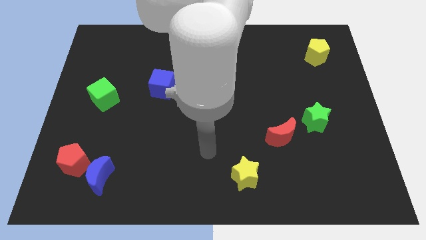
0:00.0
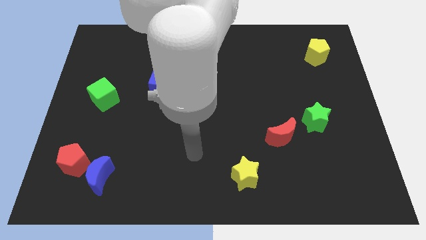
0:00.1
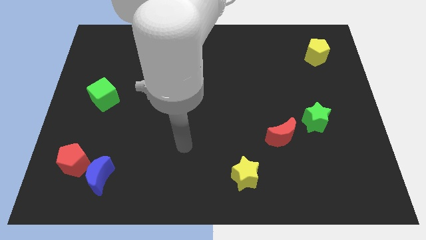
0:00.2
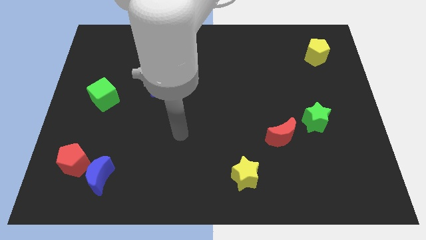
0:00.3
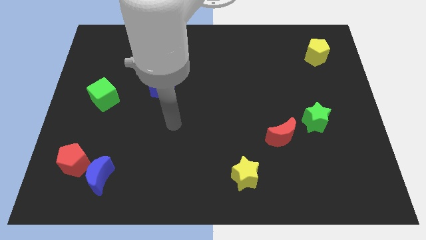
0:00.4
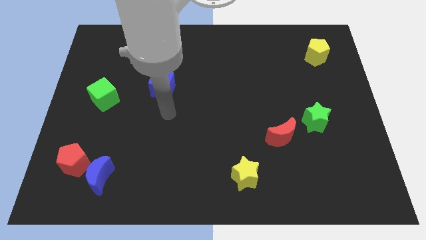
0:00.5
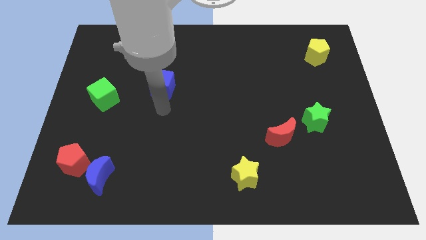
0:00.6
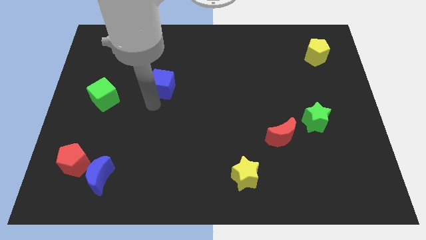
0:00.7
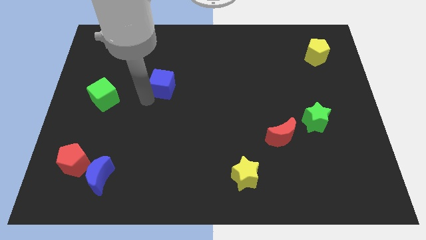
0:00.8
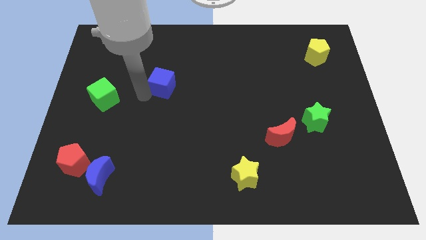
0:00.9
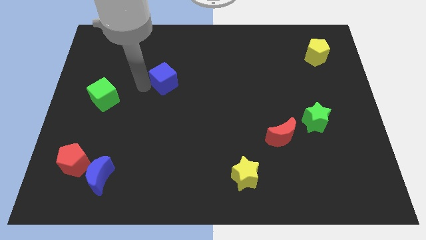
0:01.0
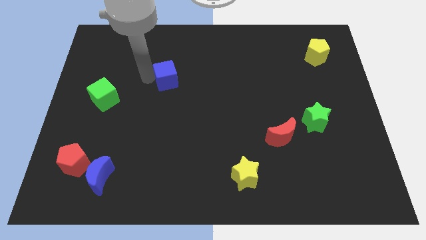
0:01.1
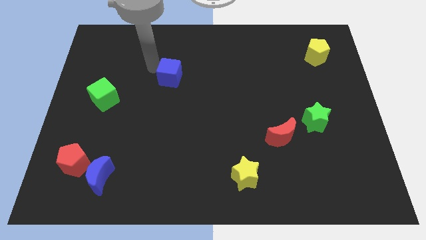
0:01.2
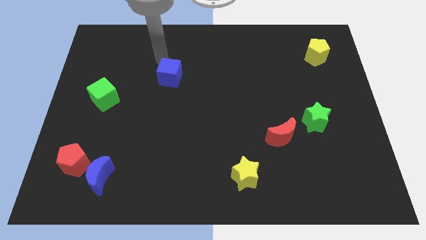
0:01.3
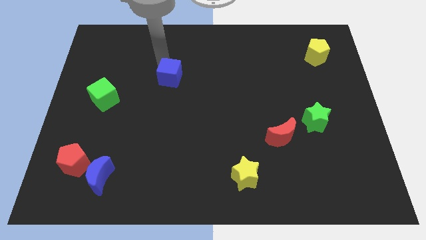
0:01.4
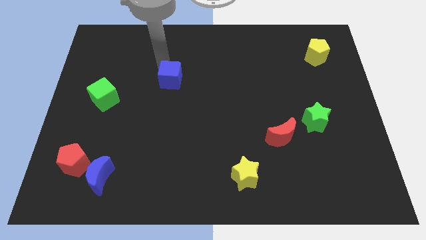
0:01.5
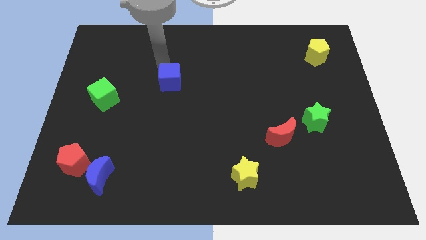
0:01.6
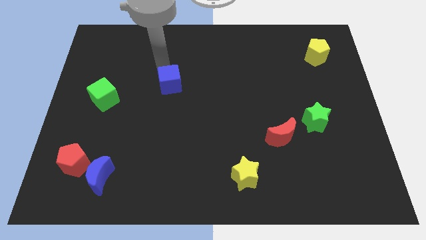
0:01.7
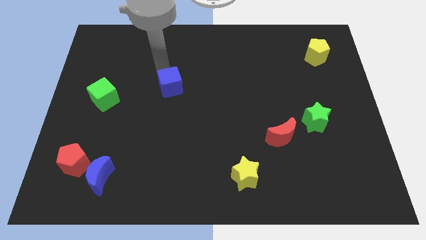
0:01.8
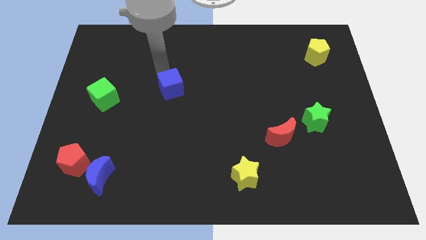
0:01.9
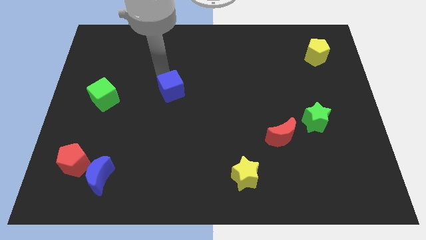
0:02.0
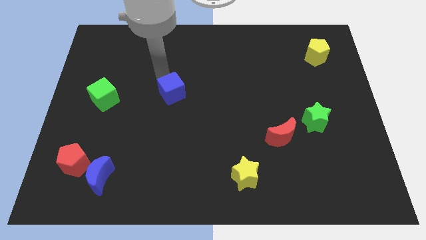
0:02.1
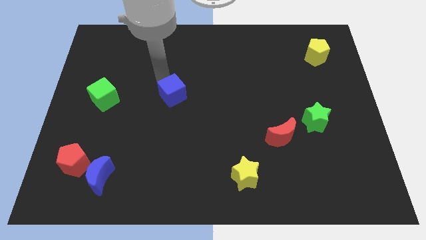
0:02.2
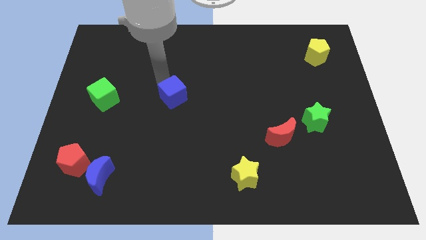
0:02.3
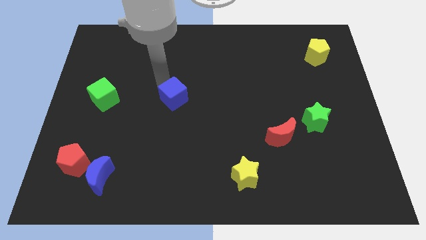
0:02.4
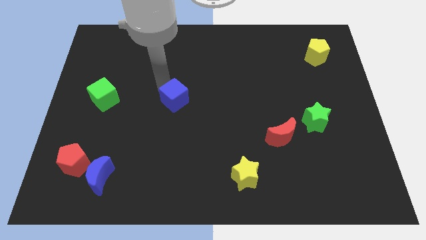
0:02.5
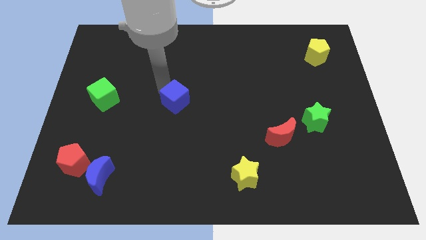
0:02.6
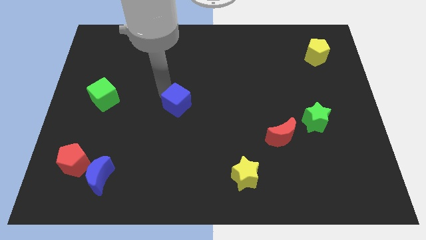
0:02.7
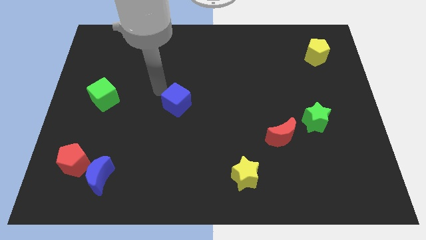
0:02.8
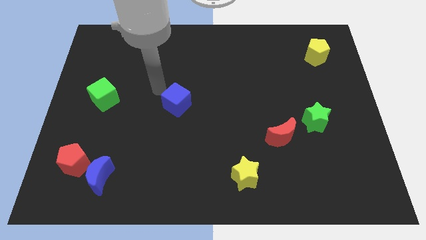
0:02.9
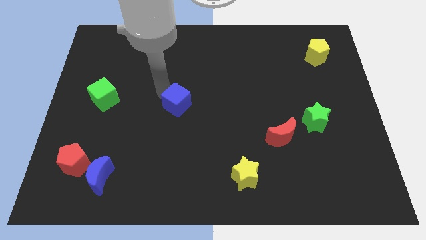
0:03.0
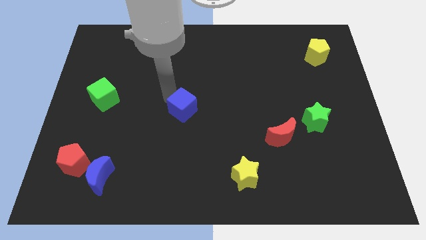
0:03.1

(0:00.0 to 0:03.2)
move the blue cube down and right diagonally slightly

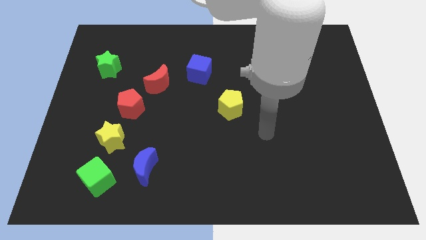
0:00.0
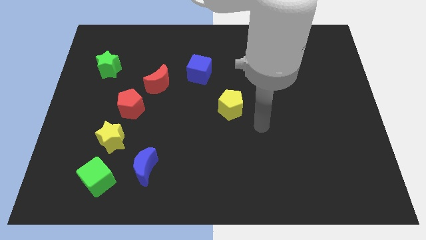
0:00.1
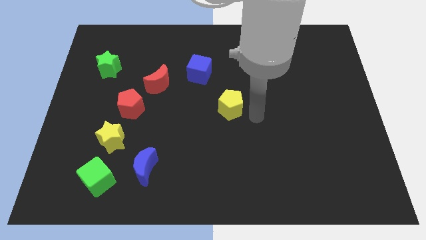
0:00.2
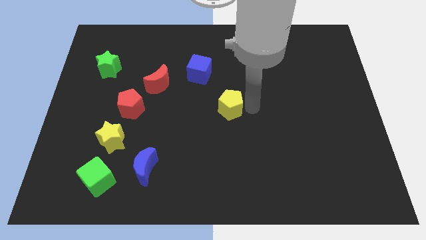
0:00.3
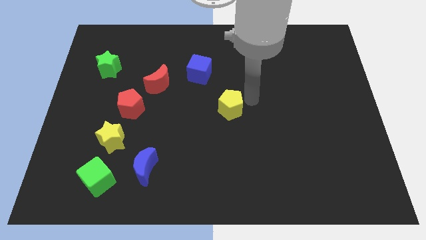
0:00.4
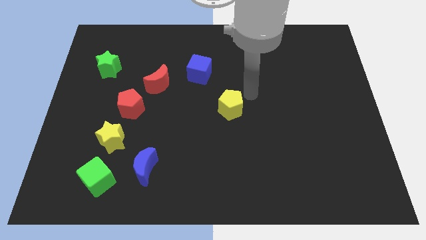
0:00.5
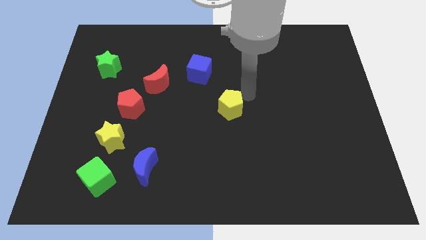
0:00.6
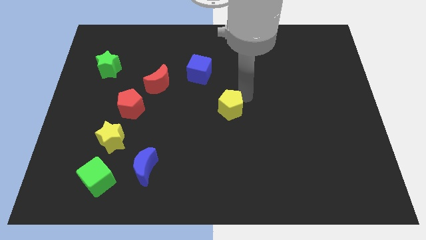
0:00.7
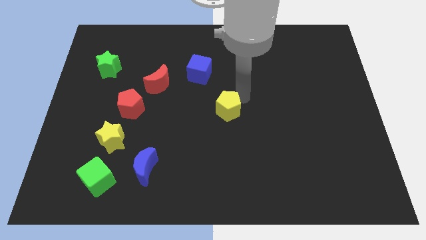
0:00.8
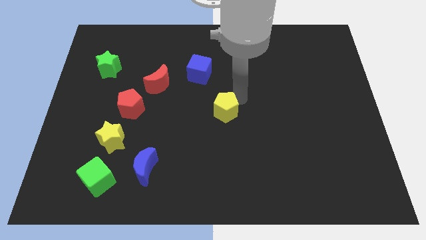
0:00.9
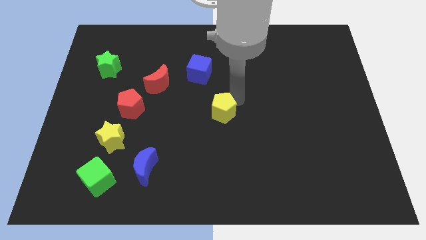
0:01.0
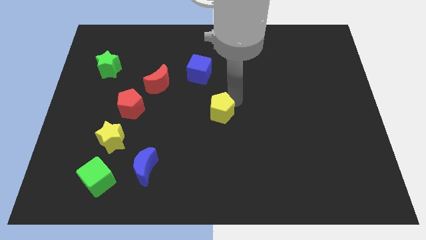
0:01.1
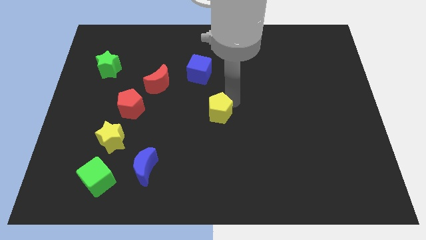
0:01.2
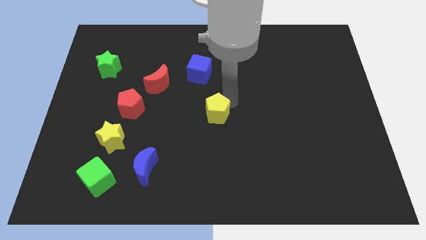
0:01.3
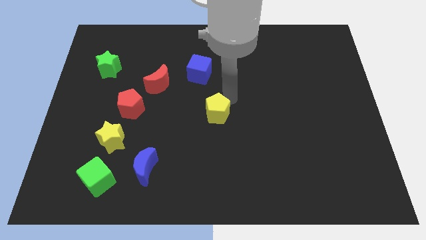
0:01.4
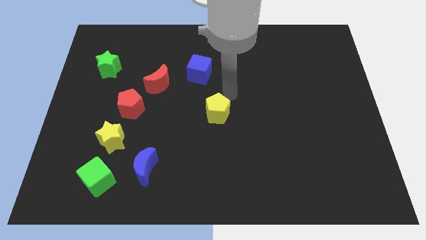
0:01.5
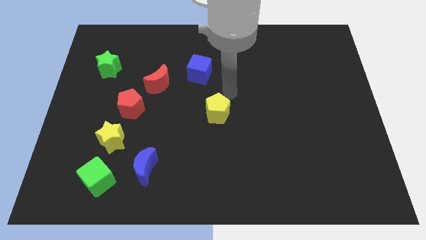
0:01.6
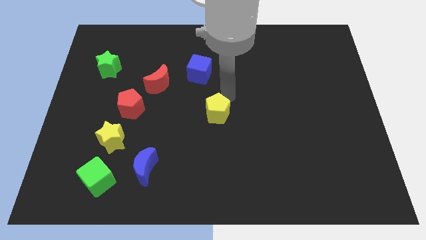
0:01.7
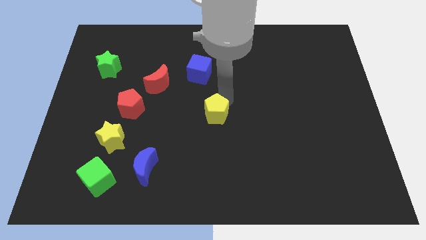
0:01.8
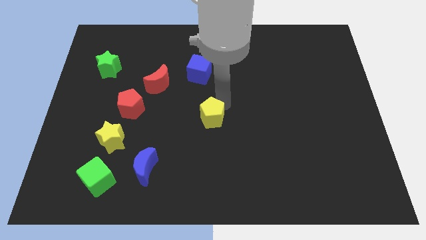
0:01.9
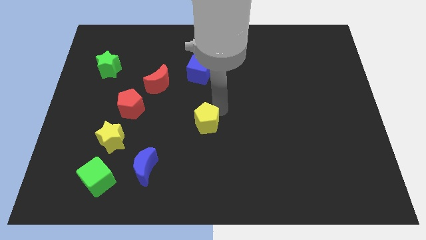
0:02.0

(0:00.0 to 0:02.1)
slightly move the yellow pentagon downwards and then left

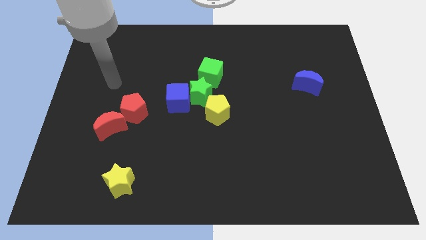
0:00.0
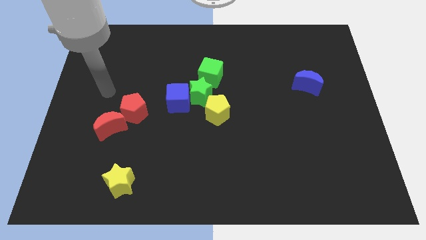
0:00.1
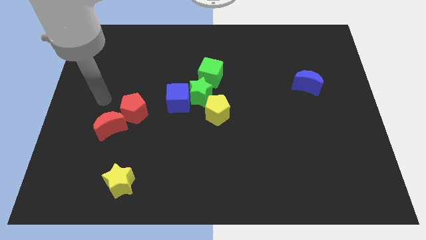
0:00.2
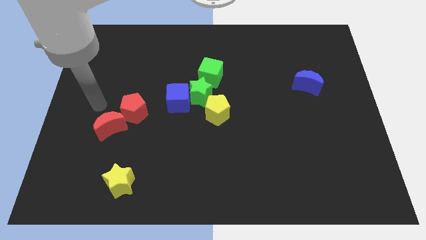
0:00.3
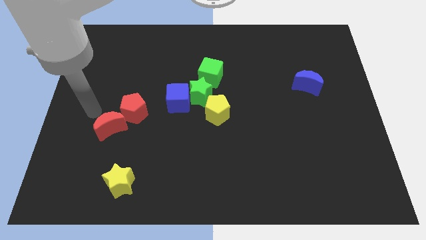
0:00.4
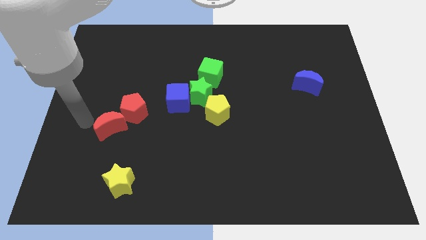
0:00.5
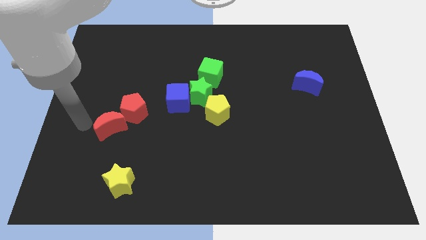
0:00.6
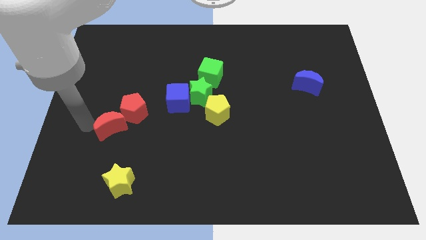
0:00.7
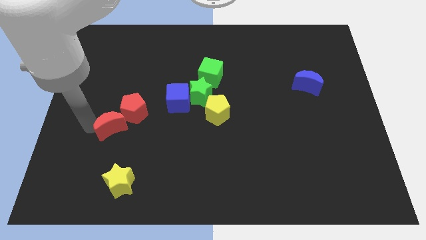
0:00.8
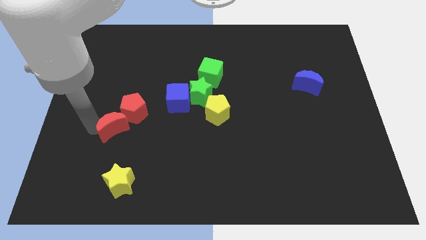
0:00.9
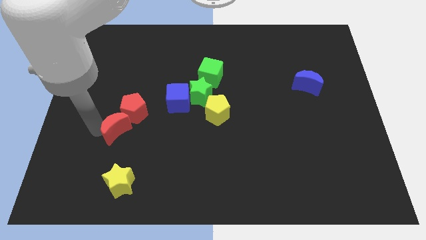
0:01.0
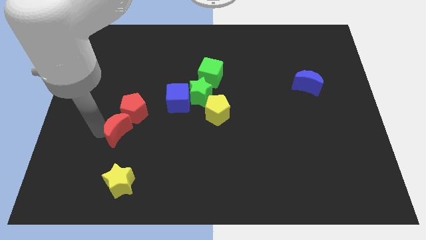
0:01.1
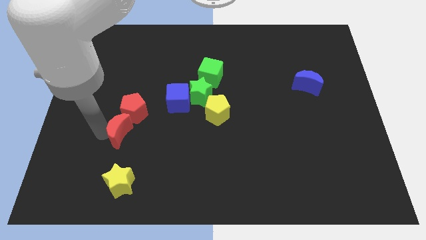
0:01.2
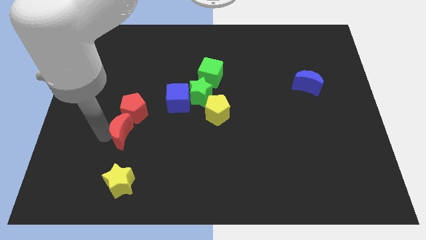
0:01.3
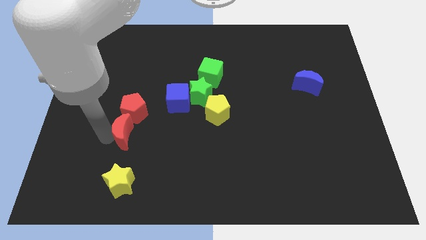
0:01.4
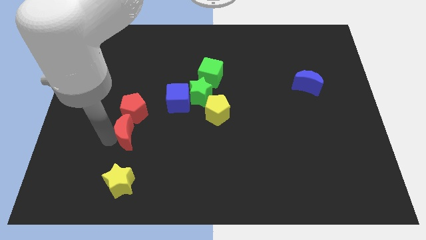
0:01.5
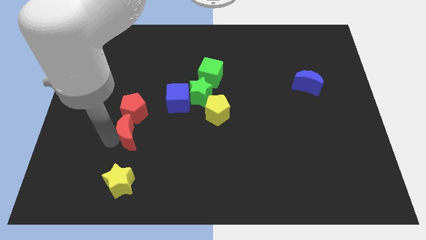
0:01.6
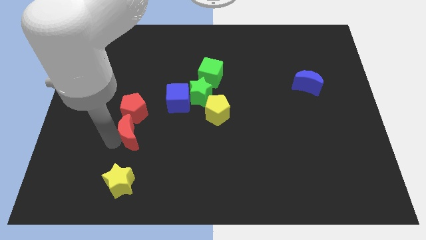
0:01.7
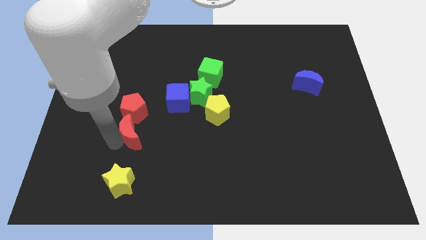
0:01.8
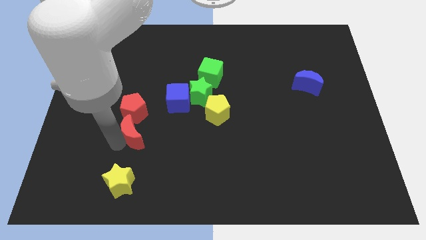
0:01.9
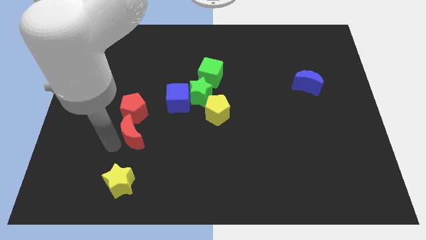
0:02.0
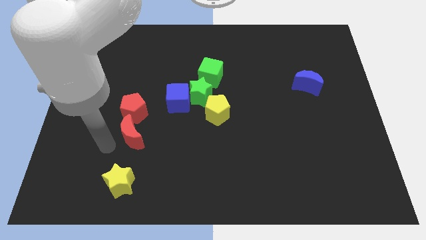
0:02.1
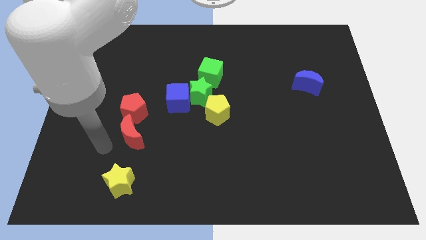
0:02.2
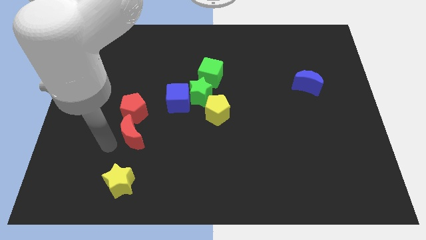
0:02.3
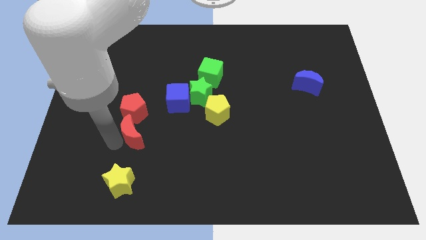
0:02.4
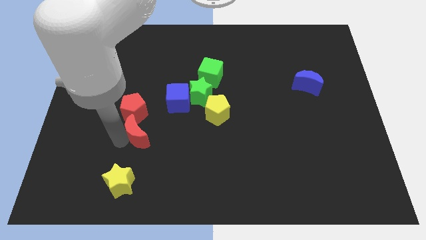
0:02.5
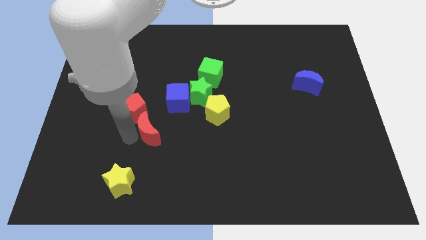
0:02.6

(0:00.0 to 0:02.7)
slightly move the red moon right

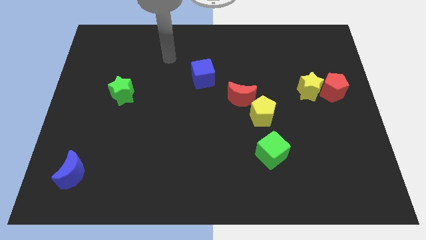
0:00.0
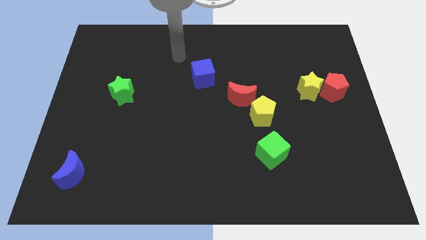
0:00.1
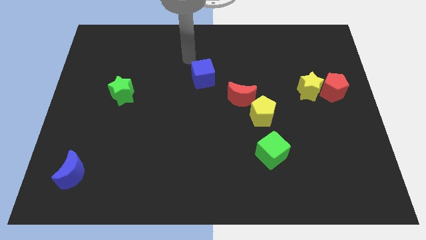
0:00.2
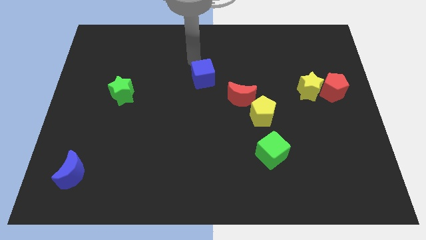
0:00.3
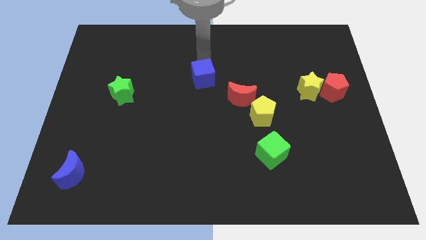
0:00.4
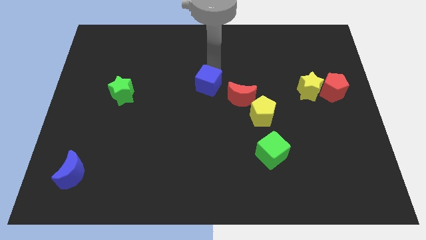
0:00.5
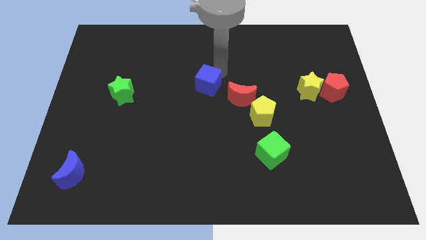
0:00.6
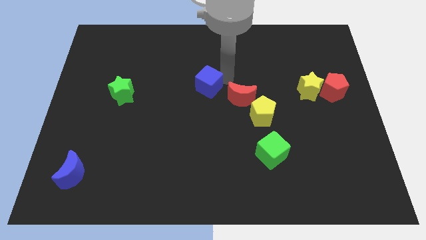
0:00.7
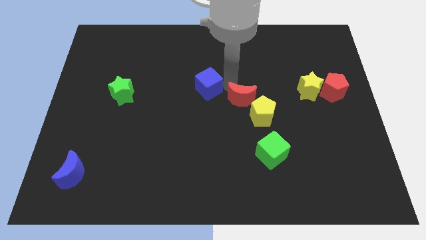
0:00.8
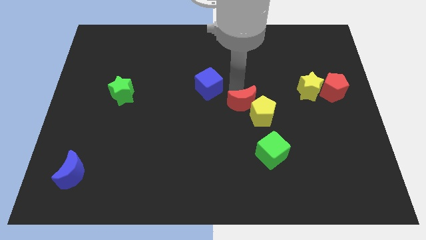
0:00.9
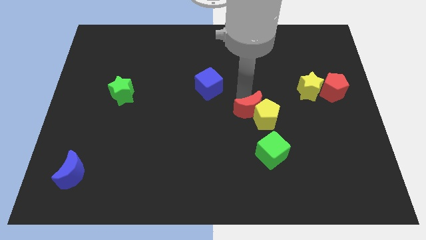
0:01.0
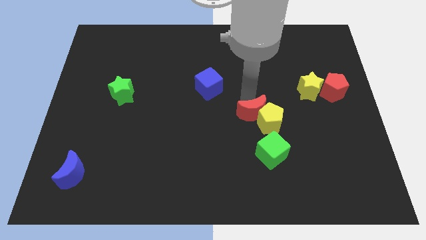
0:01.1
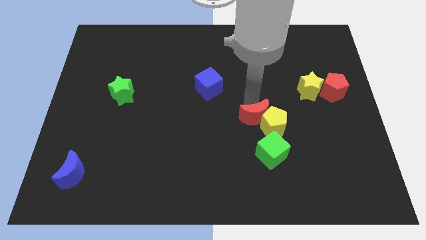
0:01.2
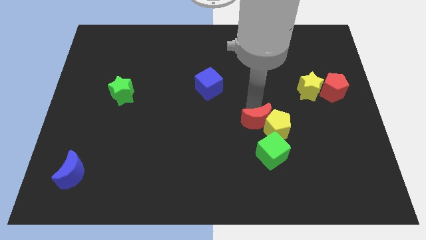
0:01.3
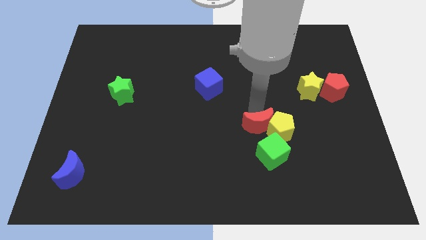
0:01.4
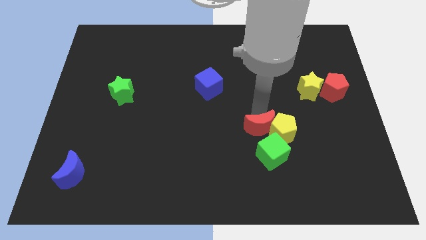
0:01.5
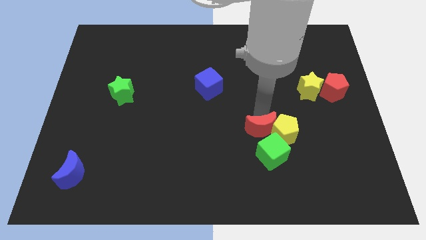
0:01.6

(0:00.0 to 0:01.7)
slightly push the yellow pentagon diagonally downwards and to the right
